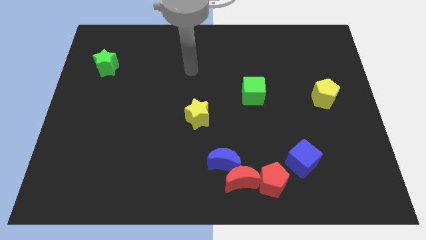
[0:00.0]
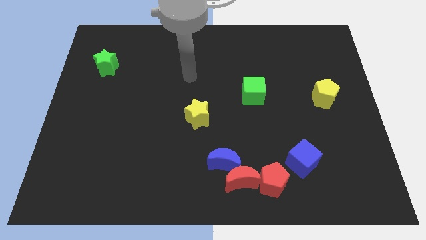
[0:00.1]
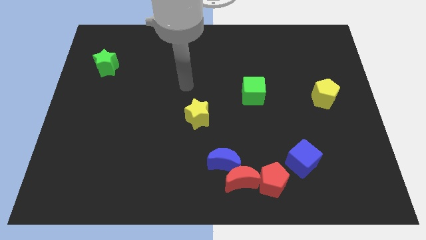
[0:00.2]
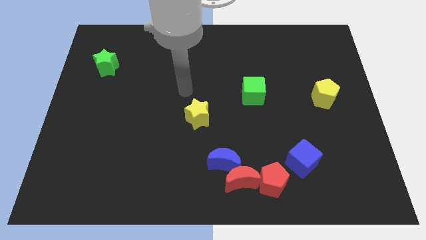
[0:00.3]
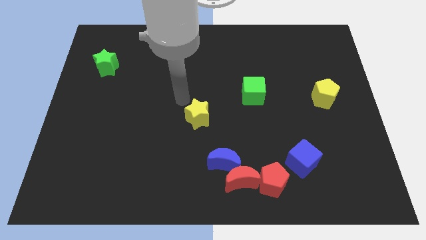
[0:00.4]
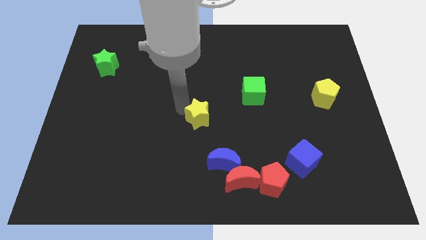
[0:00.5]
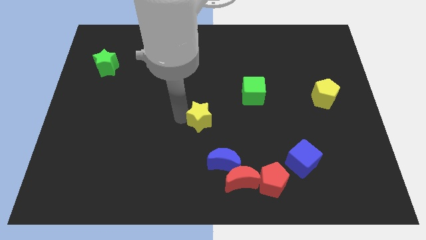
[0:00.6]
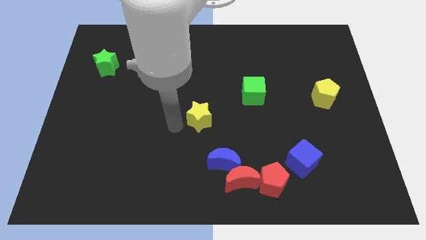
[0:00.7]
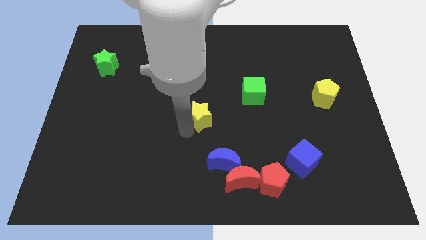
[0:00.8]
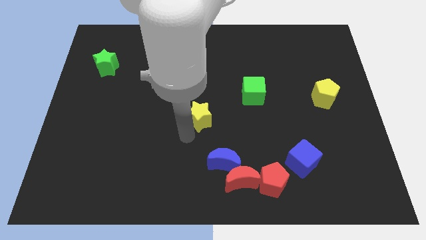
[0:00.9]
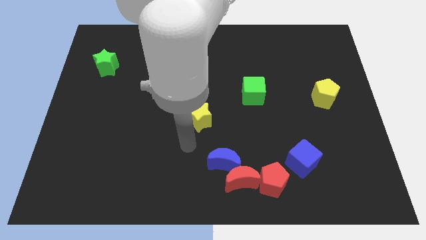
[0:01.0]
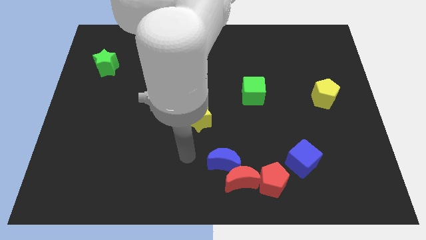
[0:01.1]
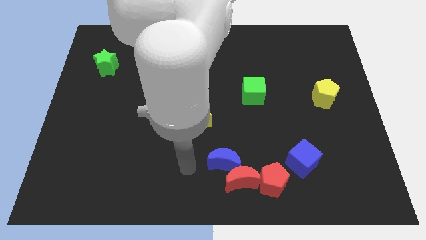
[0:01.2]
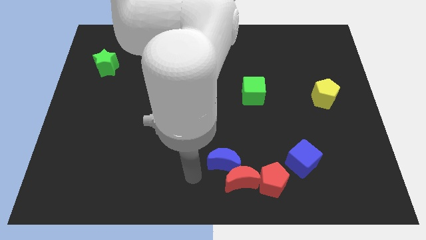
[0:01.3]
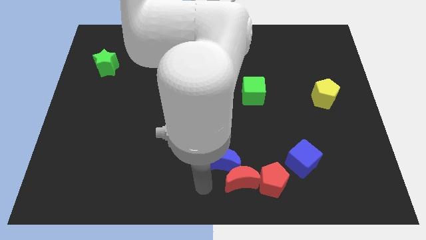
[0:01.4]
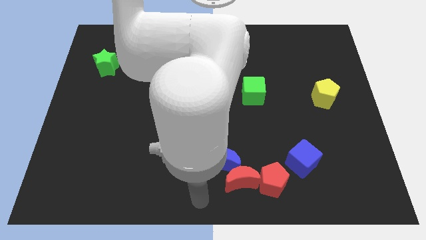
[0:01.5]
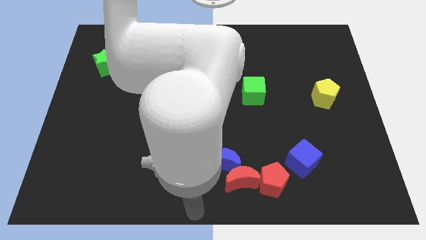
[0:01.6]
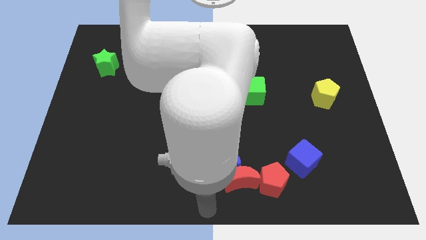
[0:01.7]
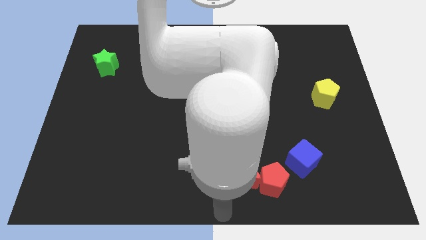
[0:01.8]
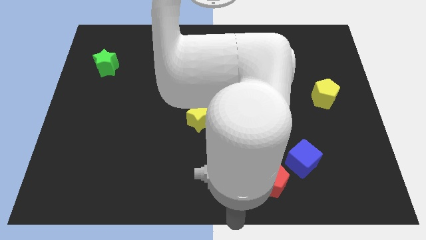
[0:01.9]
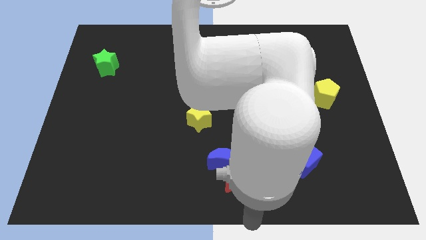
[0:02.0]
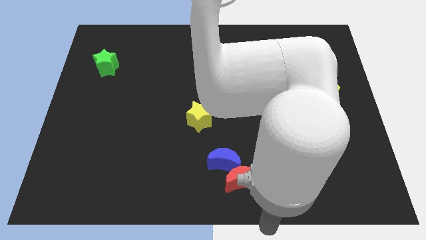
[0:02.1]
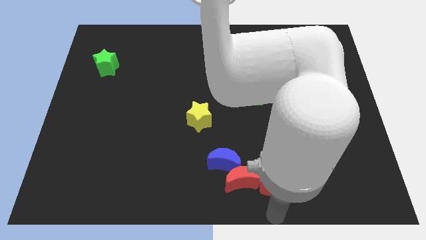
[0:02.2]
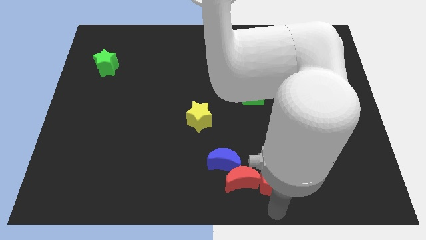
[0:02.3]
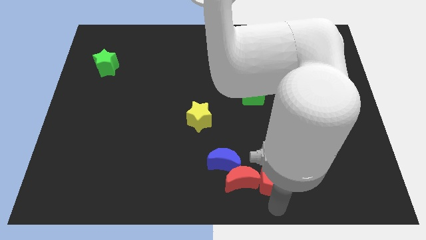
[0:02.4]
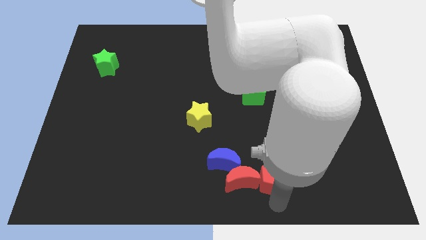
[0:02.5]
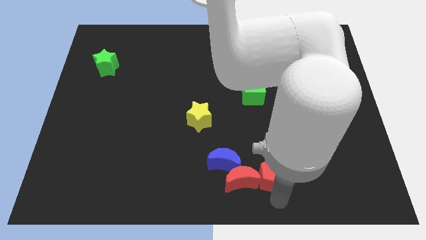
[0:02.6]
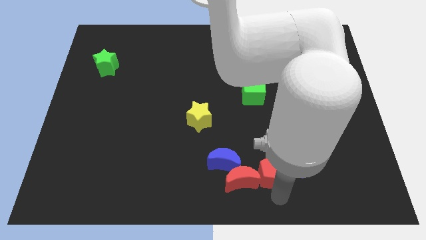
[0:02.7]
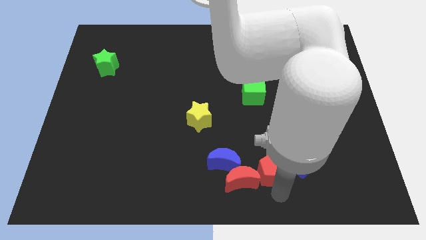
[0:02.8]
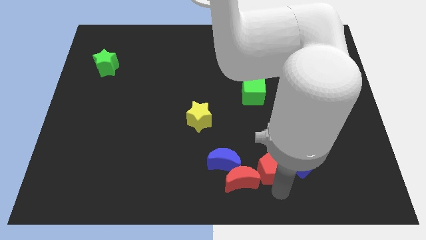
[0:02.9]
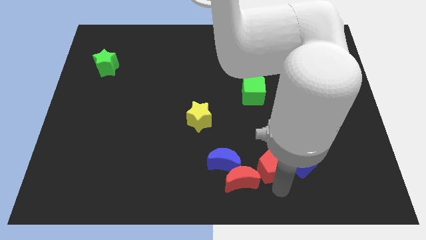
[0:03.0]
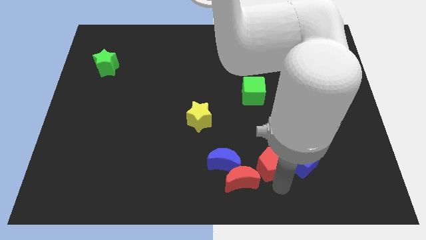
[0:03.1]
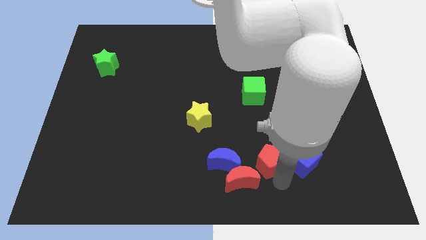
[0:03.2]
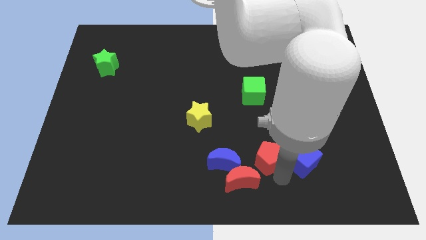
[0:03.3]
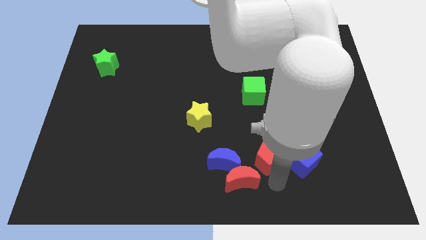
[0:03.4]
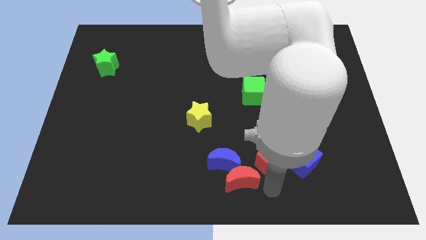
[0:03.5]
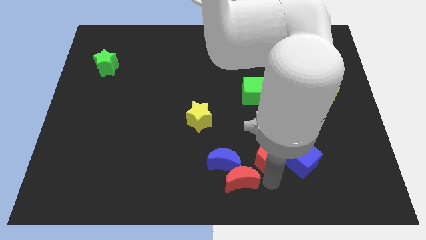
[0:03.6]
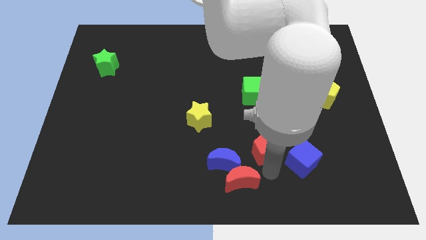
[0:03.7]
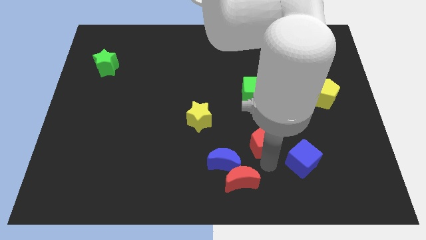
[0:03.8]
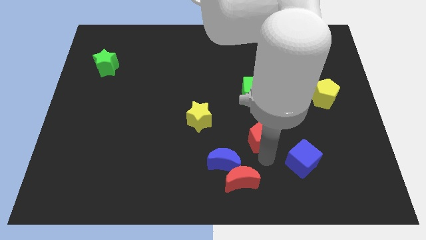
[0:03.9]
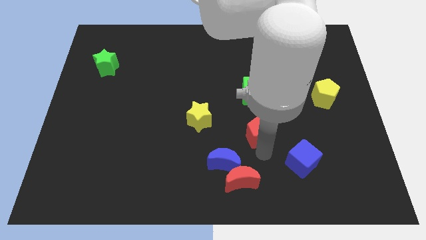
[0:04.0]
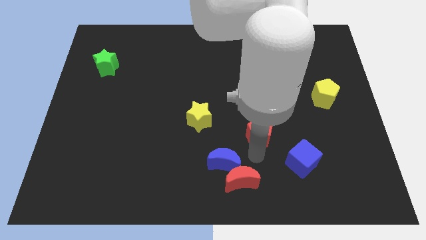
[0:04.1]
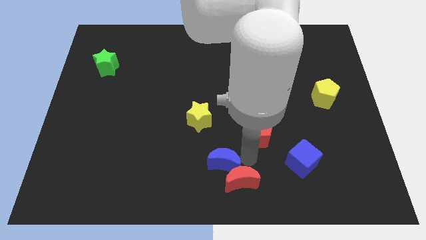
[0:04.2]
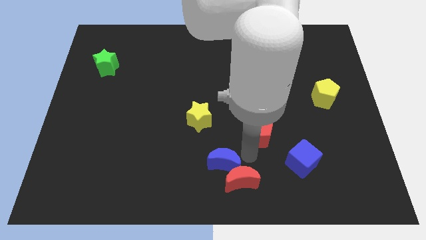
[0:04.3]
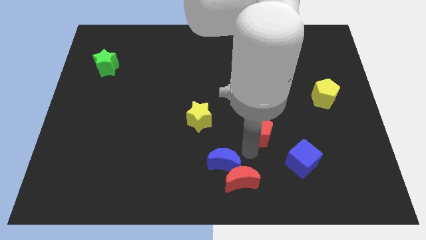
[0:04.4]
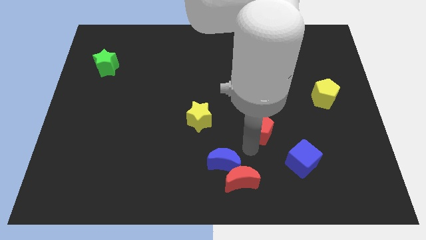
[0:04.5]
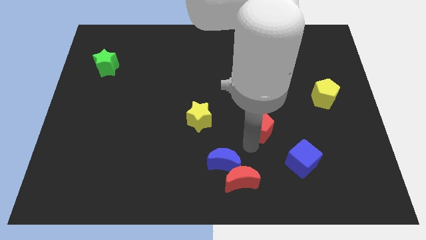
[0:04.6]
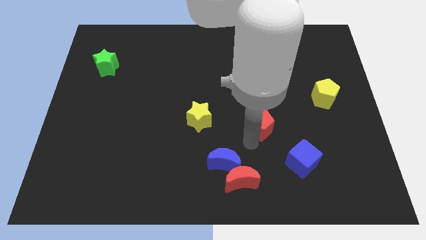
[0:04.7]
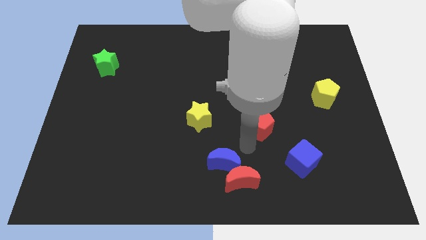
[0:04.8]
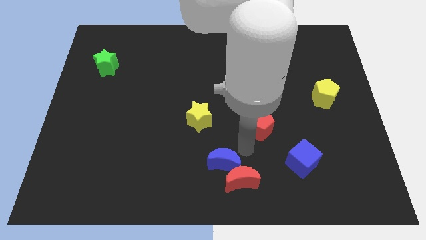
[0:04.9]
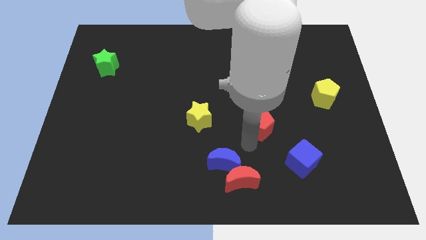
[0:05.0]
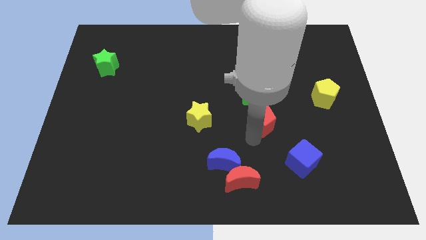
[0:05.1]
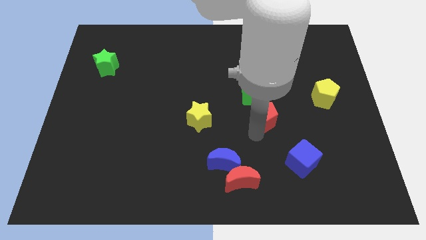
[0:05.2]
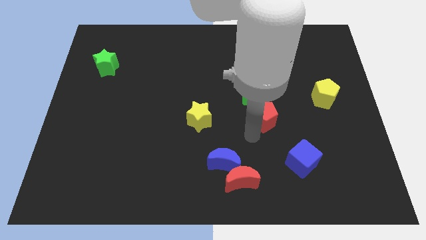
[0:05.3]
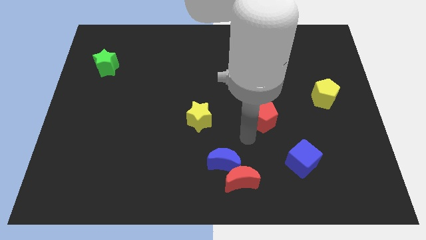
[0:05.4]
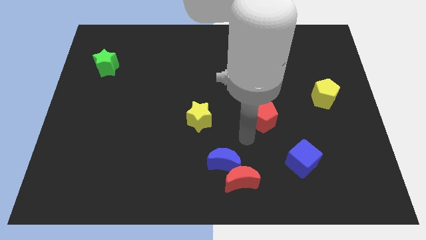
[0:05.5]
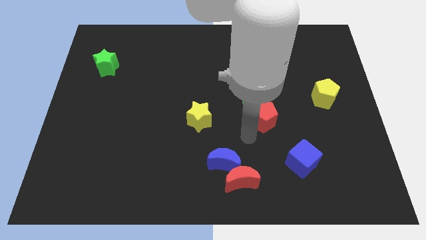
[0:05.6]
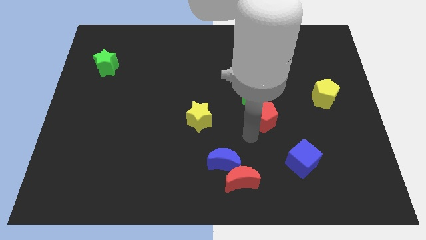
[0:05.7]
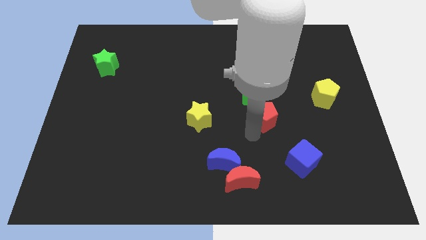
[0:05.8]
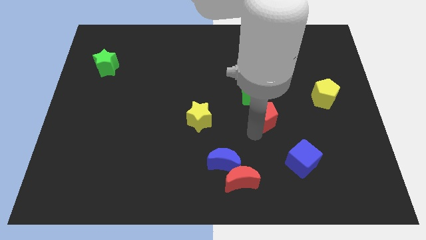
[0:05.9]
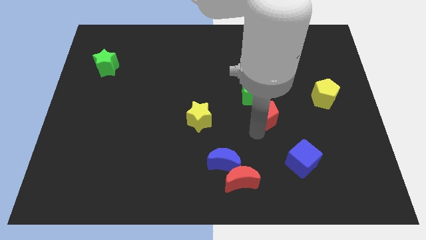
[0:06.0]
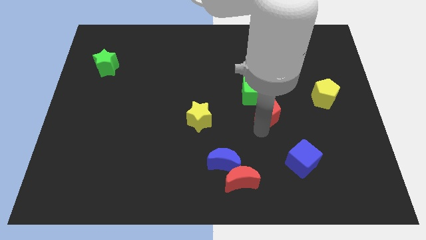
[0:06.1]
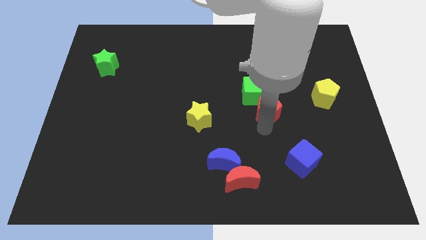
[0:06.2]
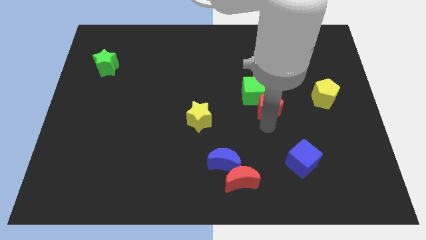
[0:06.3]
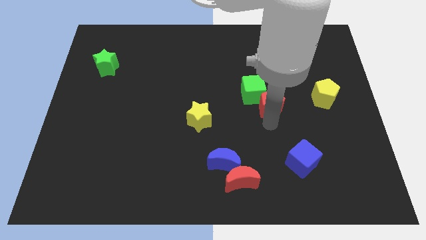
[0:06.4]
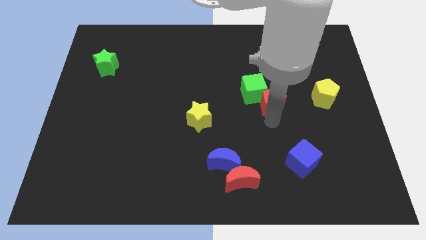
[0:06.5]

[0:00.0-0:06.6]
push the red pentagon upwards

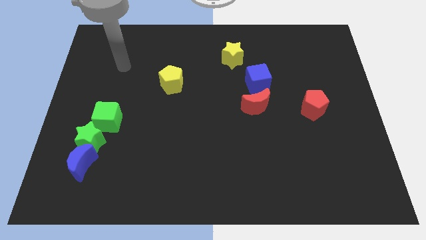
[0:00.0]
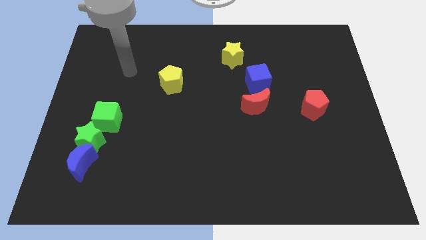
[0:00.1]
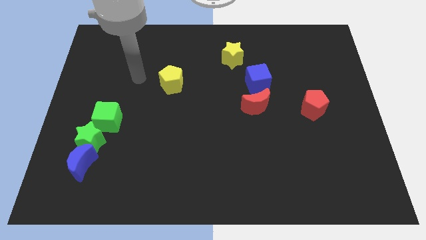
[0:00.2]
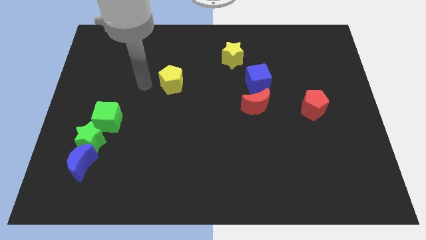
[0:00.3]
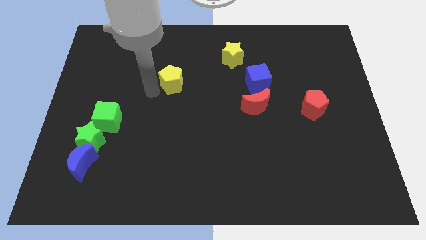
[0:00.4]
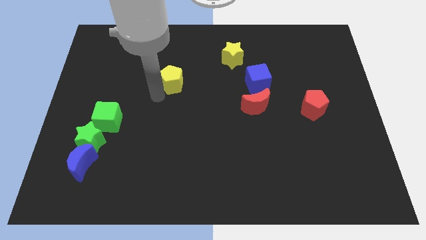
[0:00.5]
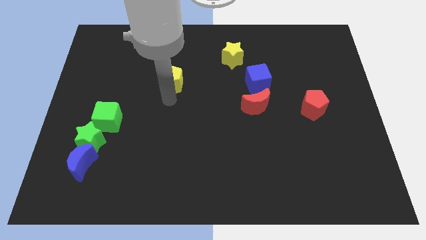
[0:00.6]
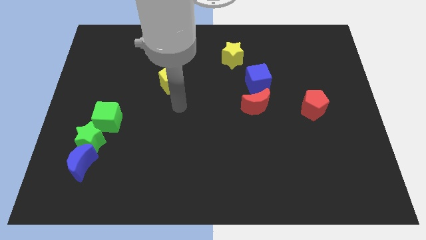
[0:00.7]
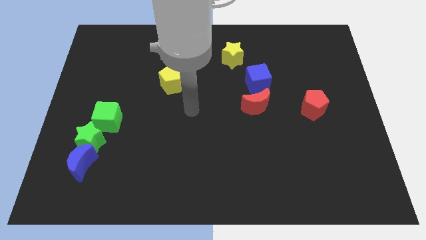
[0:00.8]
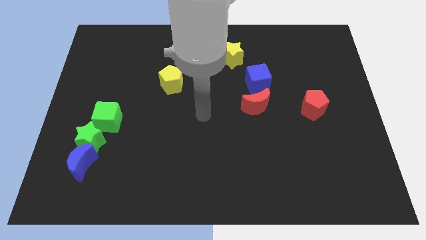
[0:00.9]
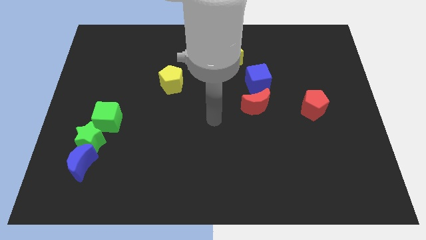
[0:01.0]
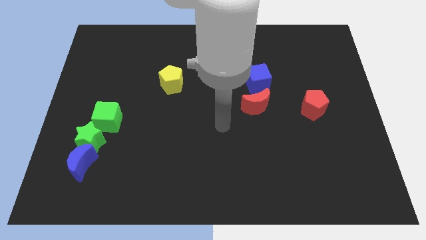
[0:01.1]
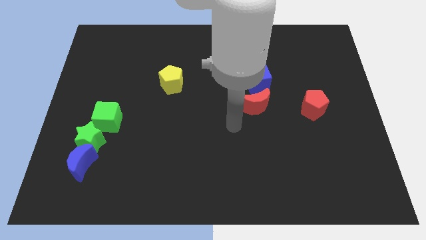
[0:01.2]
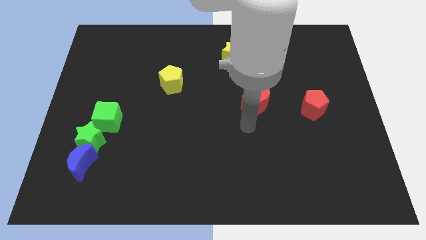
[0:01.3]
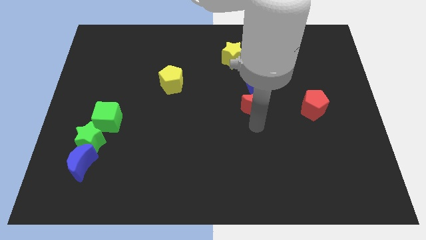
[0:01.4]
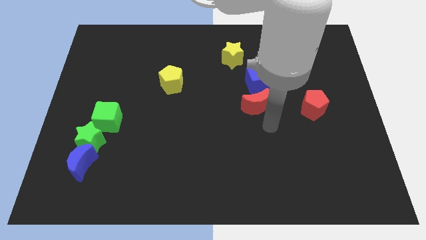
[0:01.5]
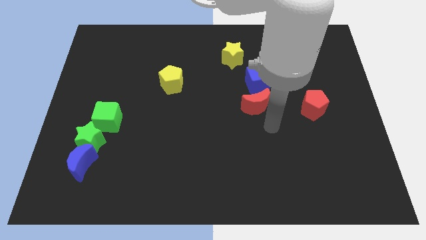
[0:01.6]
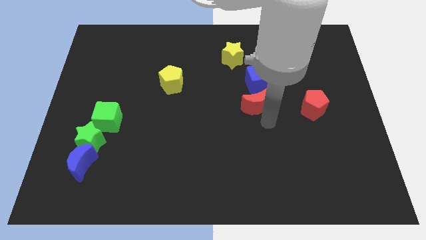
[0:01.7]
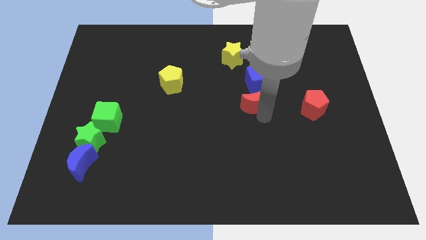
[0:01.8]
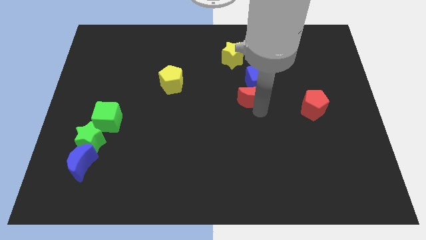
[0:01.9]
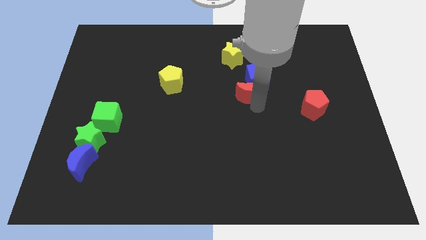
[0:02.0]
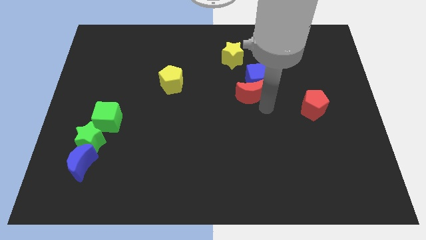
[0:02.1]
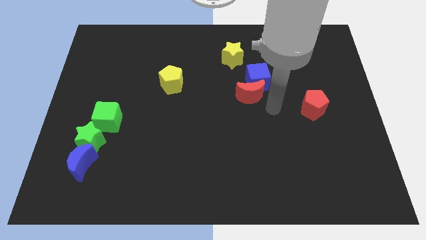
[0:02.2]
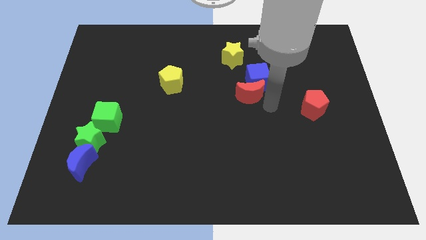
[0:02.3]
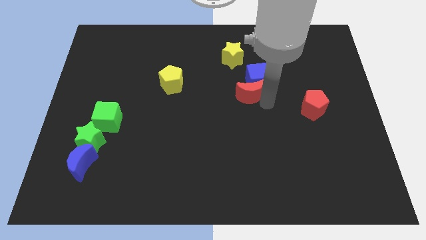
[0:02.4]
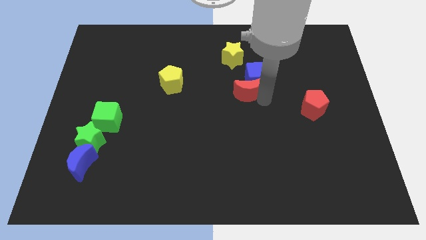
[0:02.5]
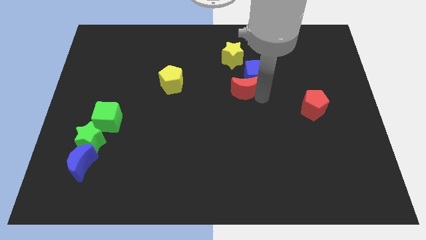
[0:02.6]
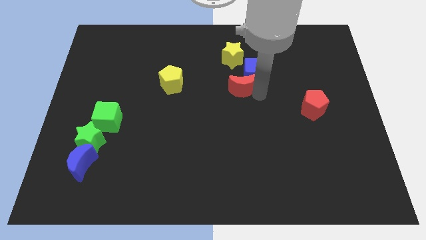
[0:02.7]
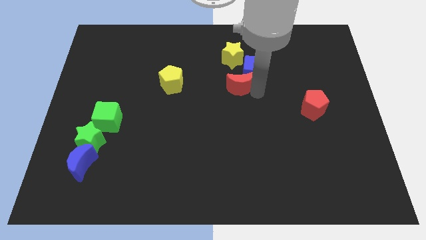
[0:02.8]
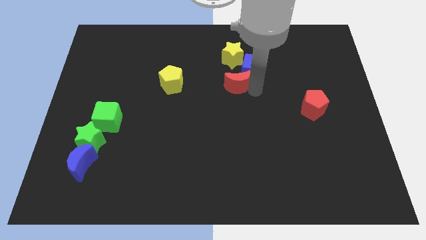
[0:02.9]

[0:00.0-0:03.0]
slightly slide the red moon upwards and left
